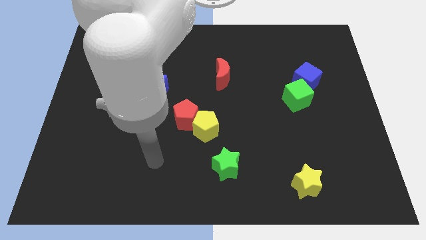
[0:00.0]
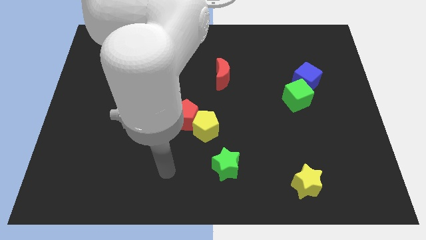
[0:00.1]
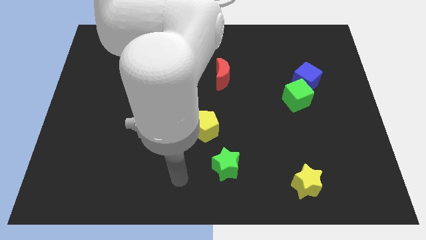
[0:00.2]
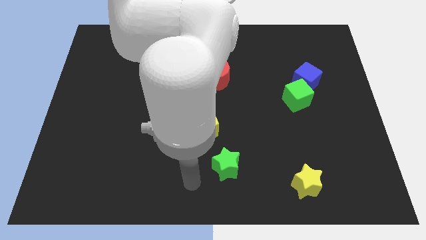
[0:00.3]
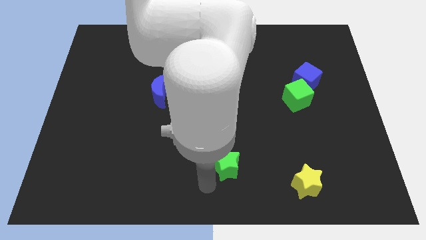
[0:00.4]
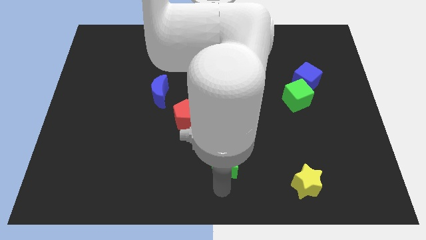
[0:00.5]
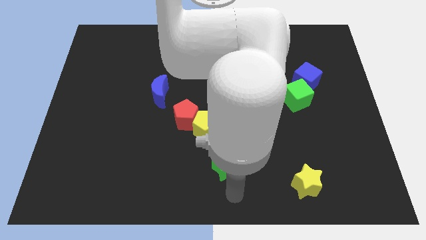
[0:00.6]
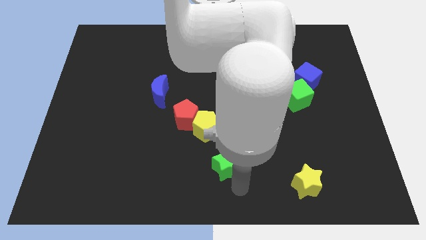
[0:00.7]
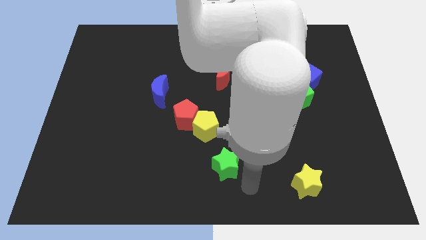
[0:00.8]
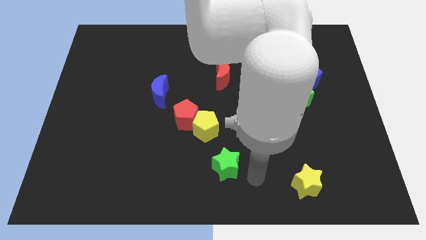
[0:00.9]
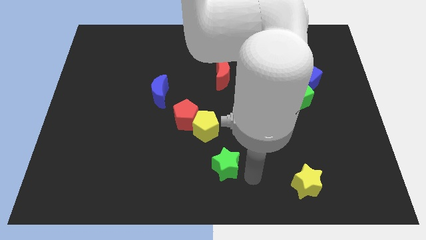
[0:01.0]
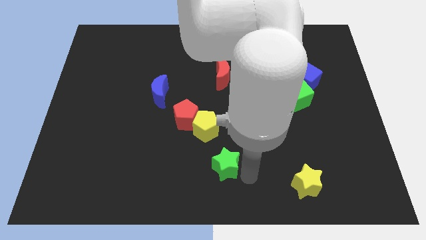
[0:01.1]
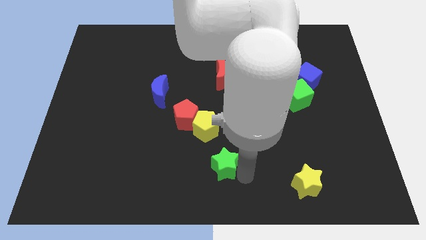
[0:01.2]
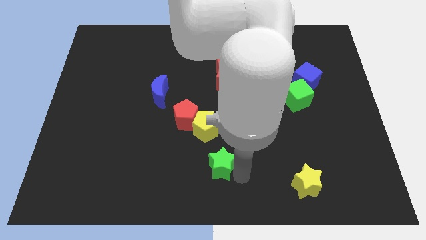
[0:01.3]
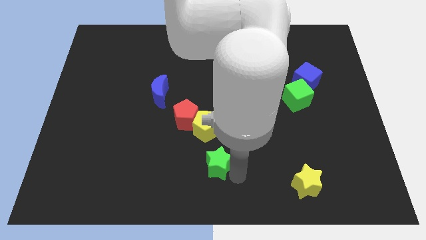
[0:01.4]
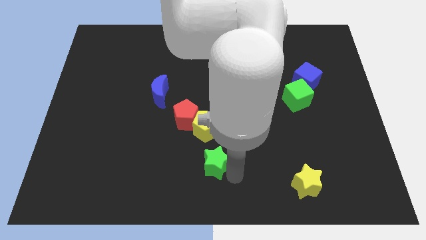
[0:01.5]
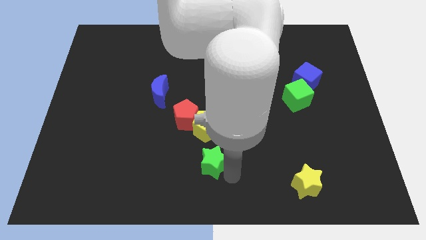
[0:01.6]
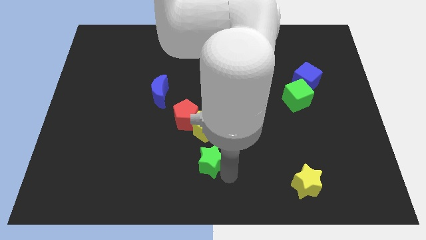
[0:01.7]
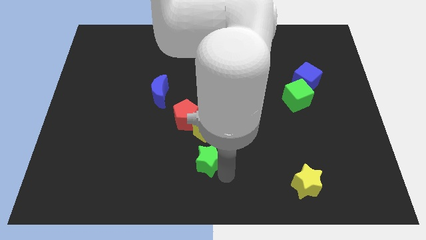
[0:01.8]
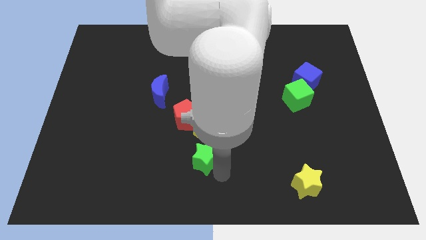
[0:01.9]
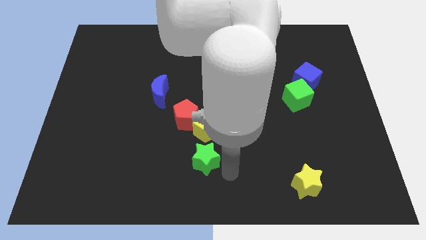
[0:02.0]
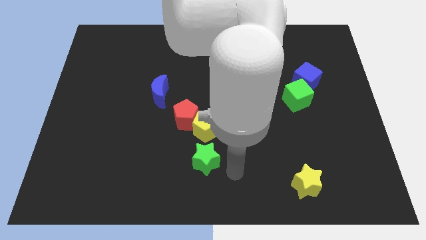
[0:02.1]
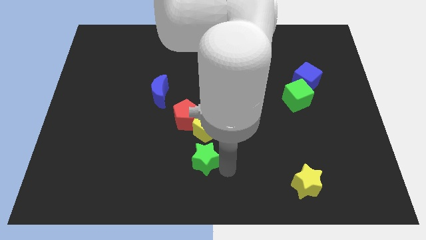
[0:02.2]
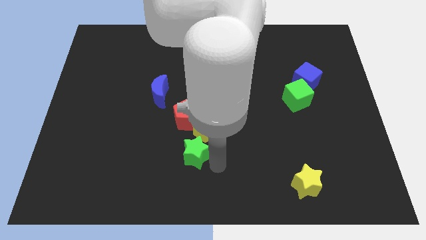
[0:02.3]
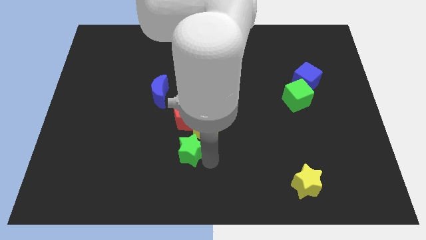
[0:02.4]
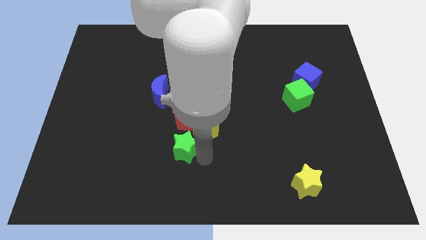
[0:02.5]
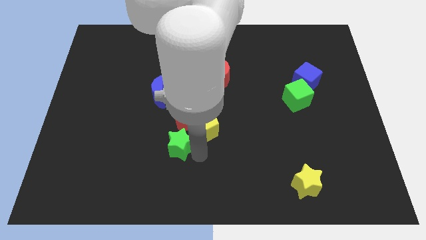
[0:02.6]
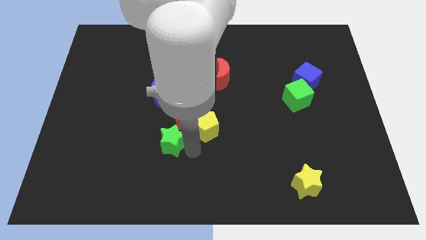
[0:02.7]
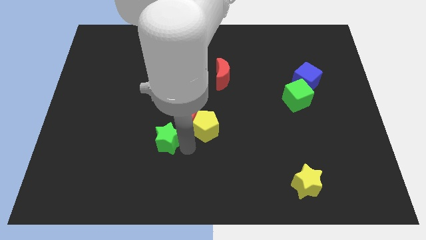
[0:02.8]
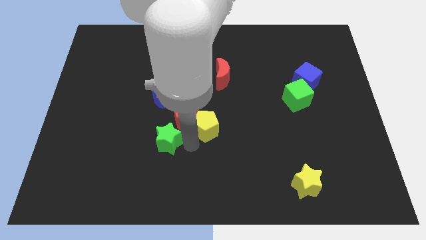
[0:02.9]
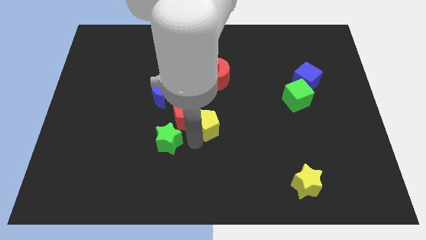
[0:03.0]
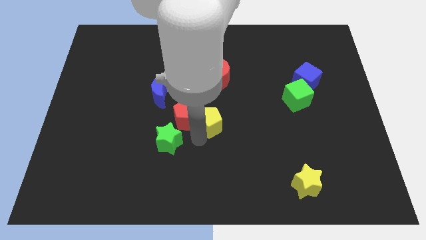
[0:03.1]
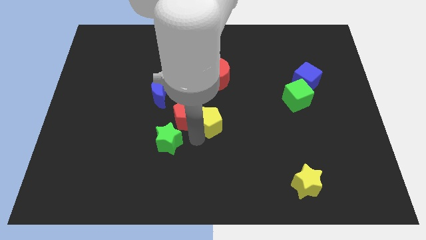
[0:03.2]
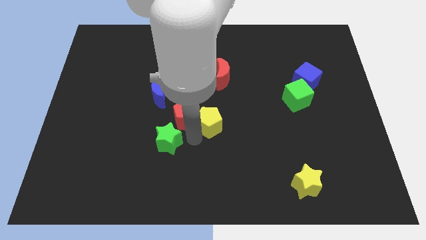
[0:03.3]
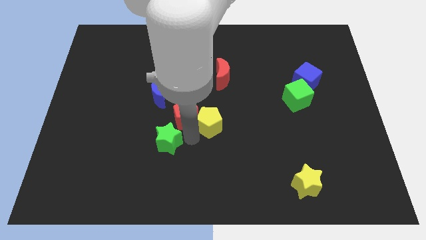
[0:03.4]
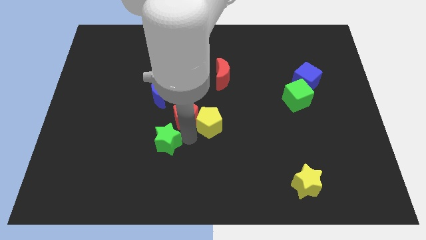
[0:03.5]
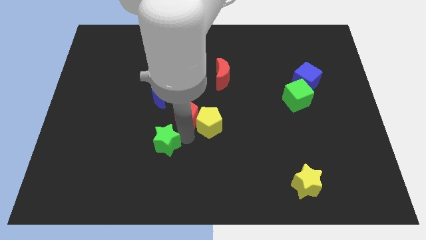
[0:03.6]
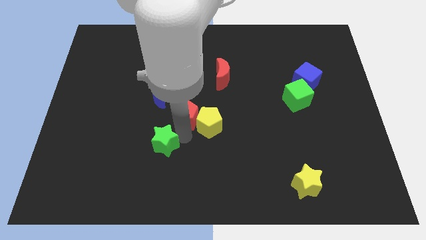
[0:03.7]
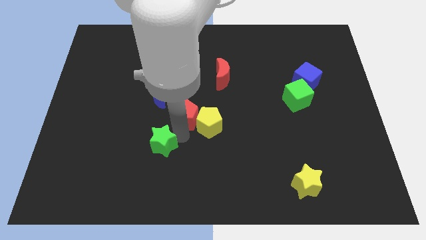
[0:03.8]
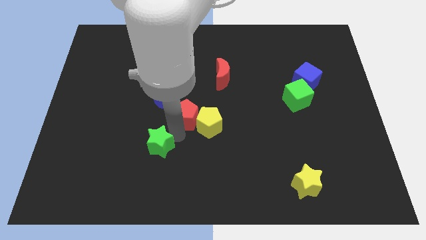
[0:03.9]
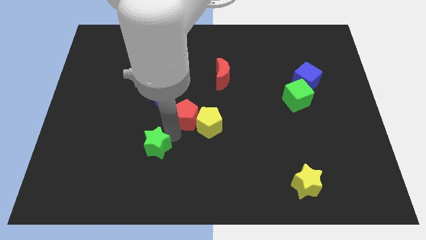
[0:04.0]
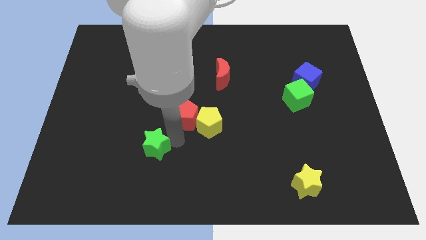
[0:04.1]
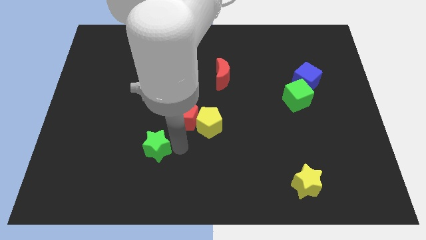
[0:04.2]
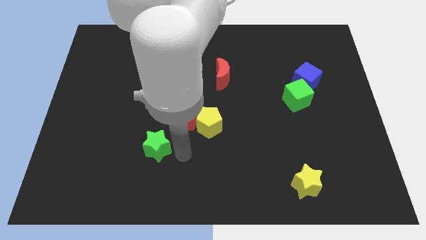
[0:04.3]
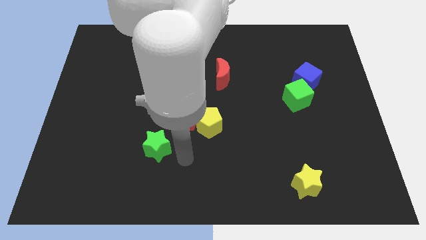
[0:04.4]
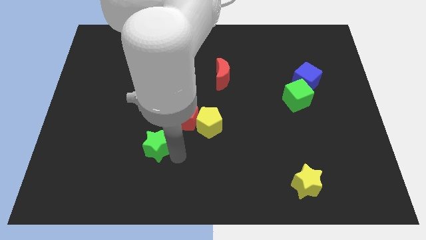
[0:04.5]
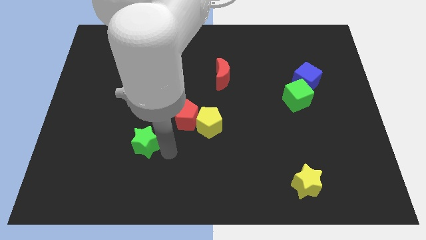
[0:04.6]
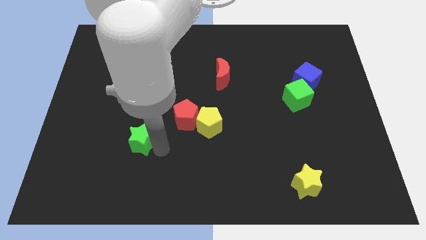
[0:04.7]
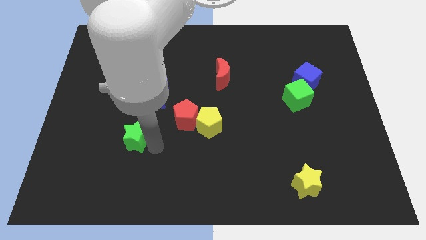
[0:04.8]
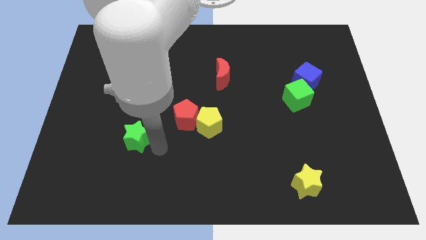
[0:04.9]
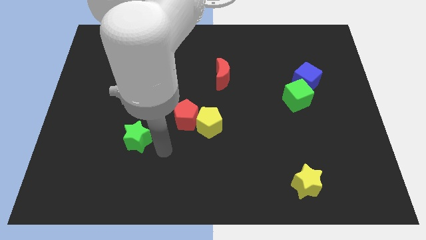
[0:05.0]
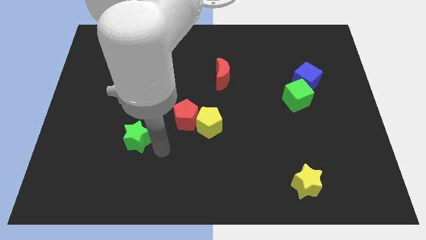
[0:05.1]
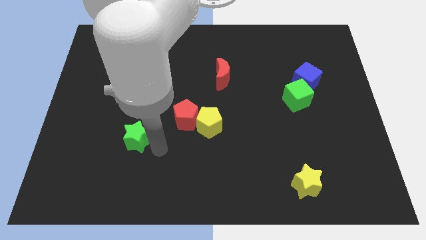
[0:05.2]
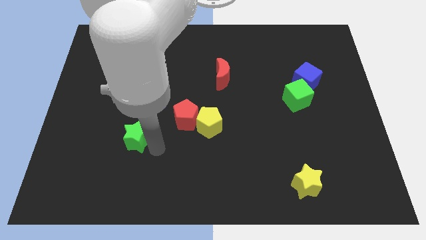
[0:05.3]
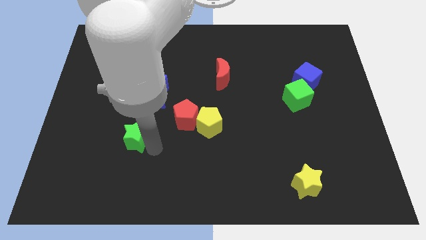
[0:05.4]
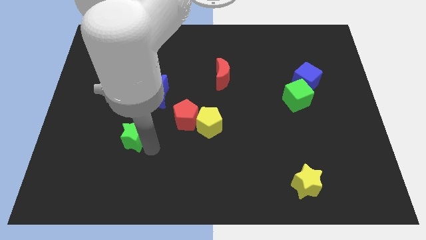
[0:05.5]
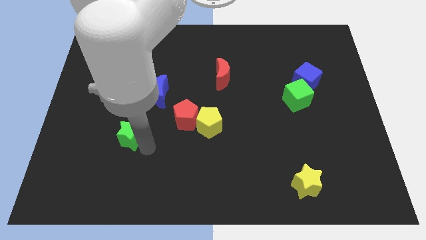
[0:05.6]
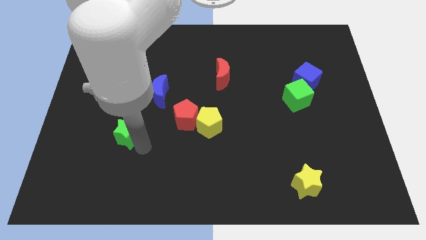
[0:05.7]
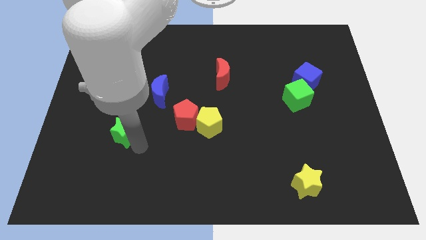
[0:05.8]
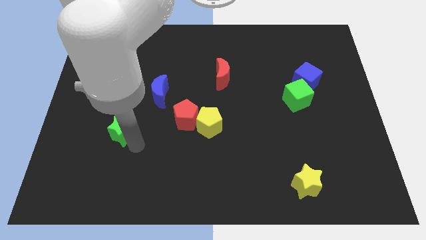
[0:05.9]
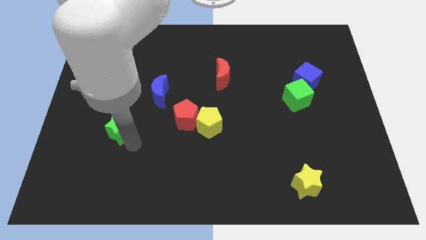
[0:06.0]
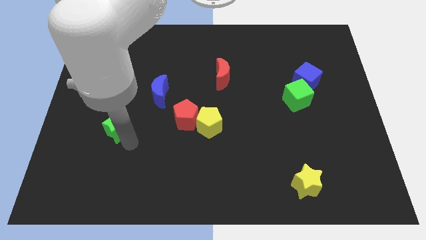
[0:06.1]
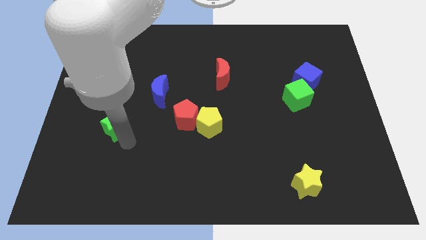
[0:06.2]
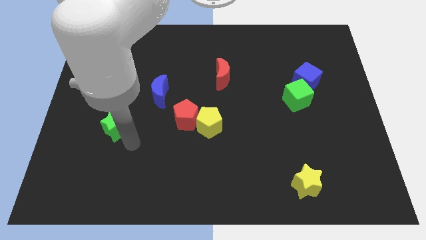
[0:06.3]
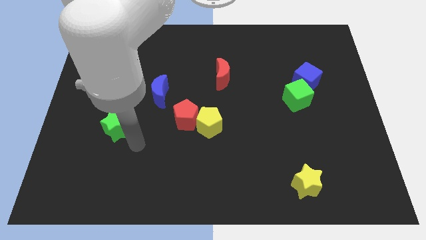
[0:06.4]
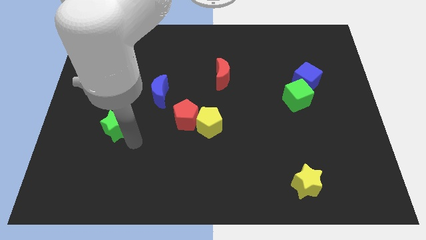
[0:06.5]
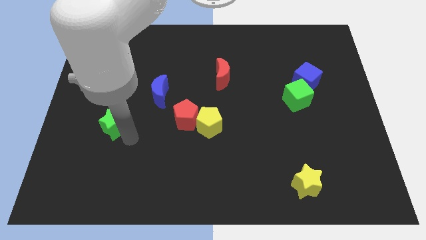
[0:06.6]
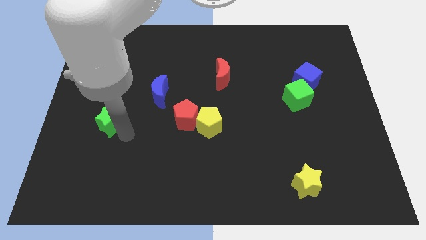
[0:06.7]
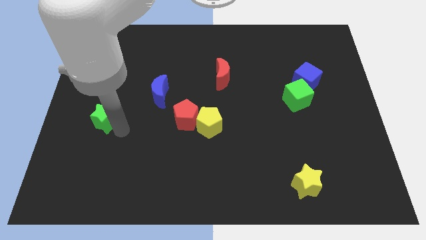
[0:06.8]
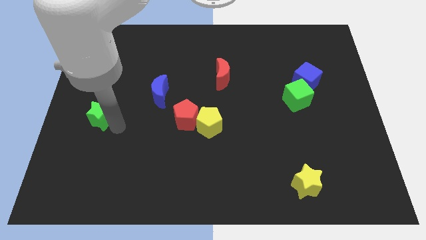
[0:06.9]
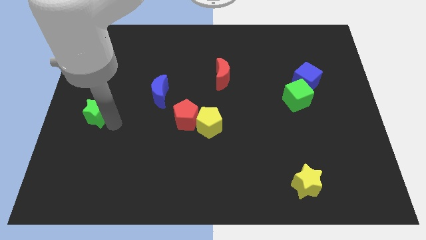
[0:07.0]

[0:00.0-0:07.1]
push the green star to the center left
